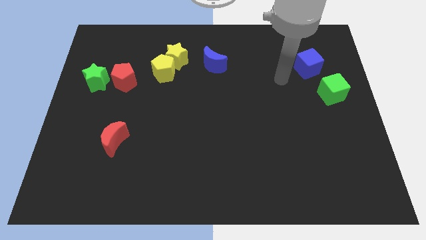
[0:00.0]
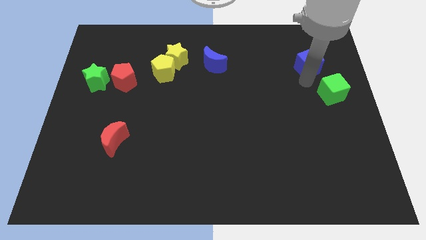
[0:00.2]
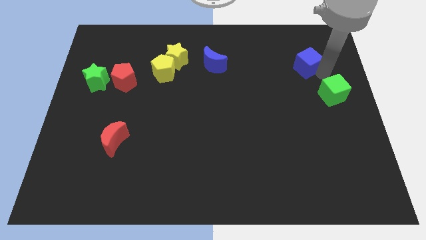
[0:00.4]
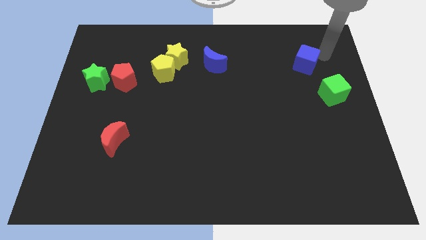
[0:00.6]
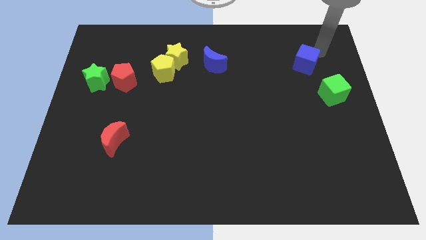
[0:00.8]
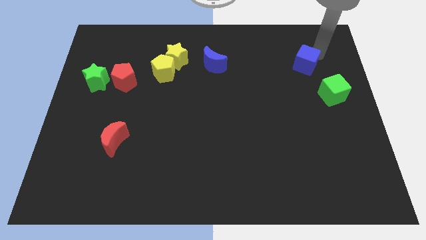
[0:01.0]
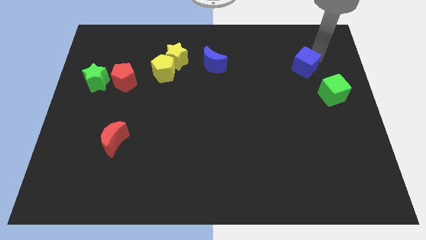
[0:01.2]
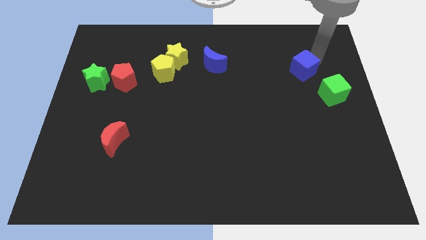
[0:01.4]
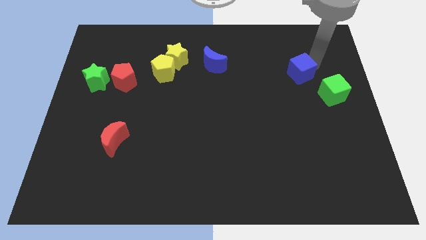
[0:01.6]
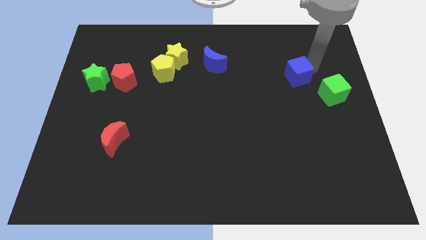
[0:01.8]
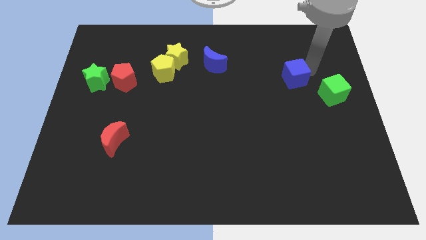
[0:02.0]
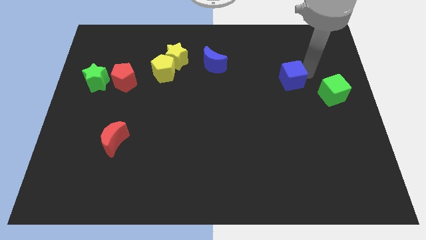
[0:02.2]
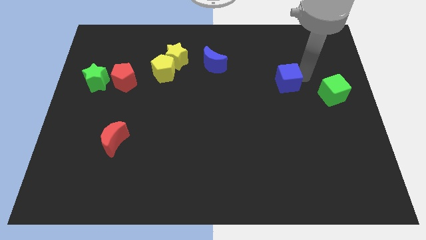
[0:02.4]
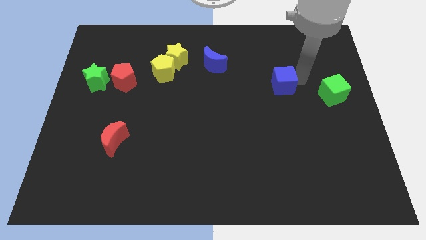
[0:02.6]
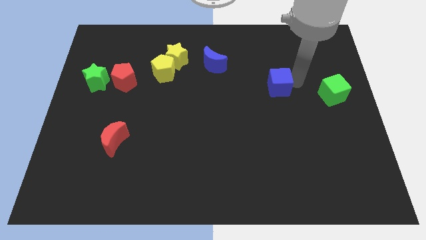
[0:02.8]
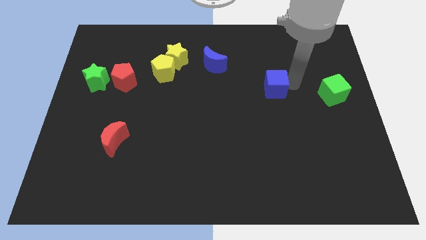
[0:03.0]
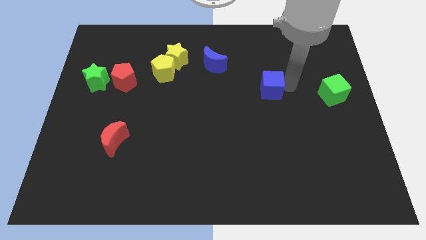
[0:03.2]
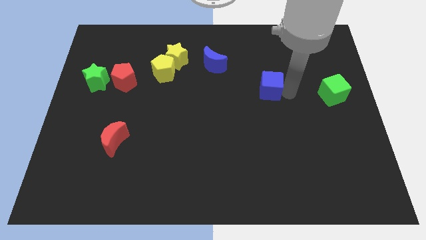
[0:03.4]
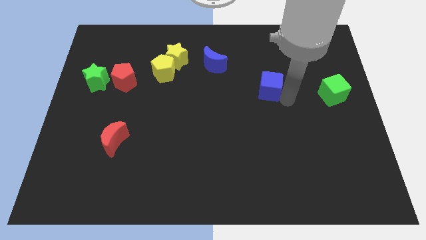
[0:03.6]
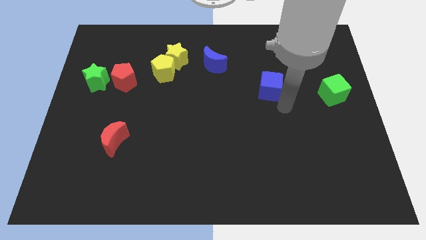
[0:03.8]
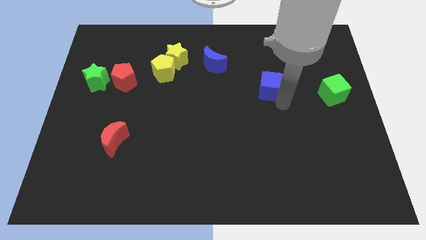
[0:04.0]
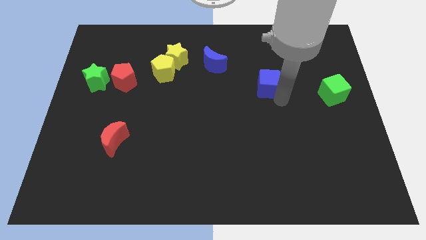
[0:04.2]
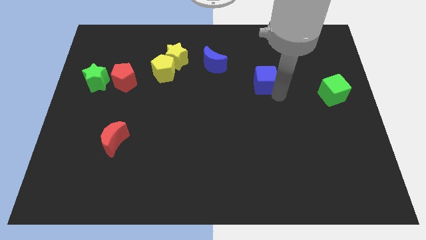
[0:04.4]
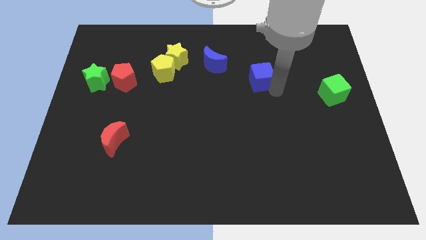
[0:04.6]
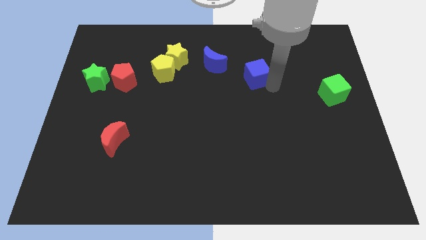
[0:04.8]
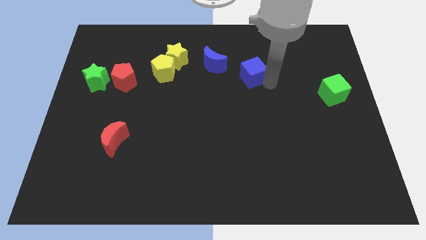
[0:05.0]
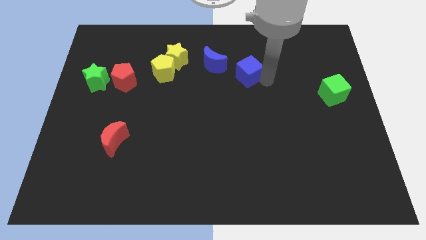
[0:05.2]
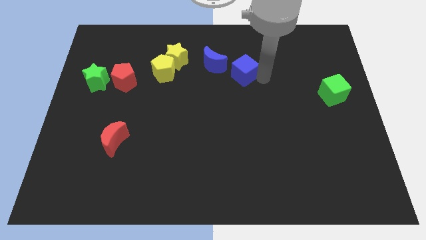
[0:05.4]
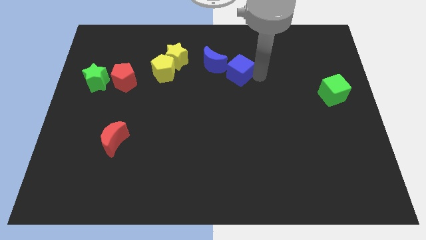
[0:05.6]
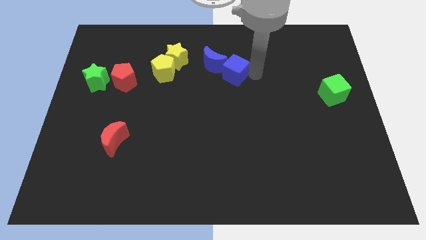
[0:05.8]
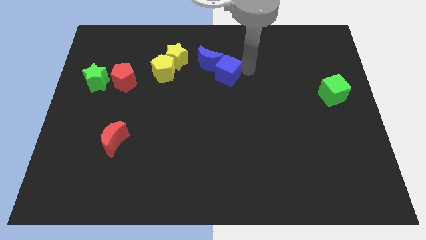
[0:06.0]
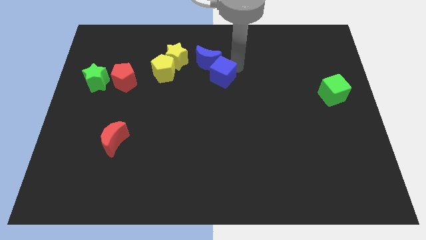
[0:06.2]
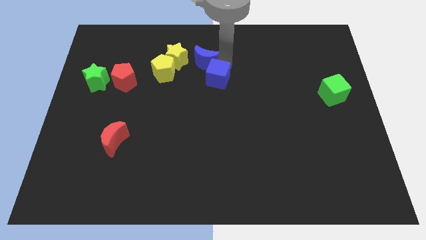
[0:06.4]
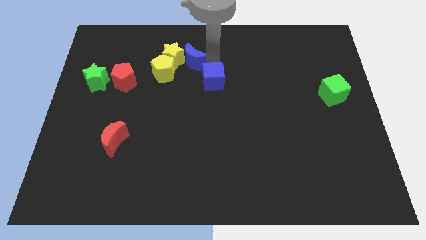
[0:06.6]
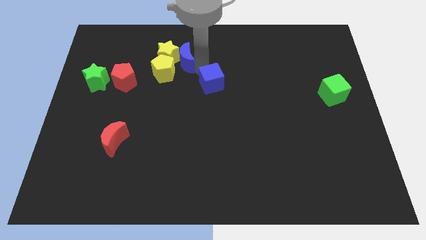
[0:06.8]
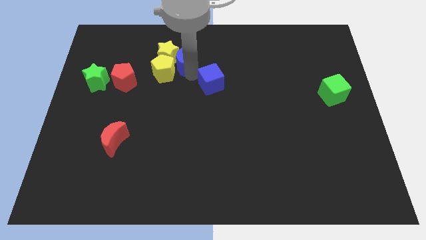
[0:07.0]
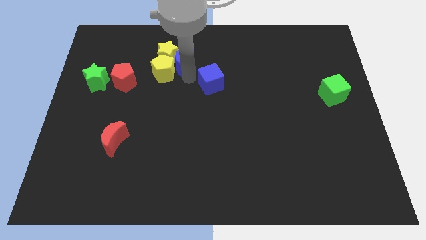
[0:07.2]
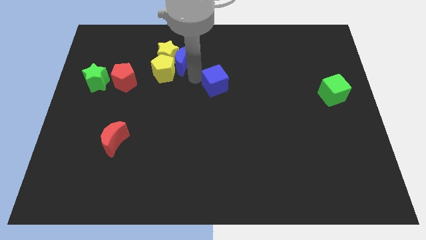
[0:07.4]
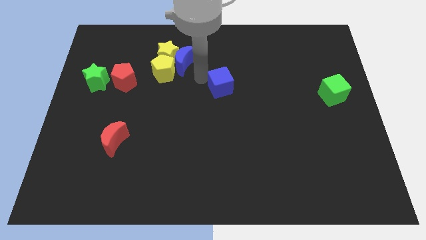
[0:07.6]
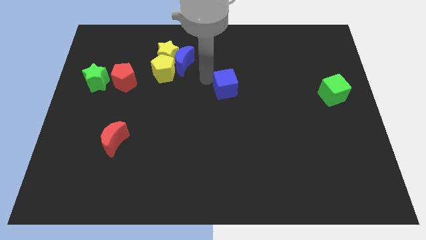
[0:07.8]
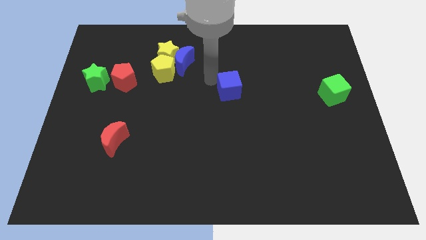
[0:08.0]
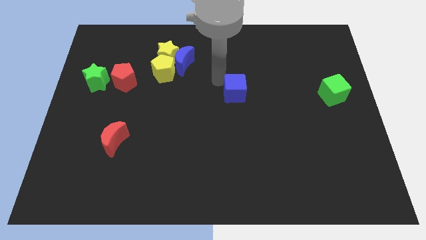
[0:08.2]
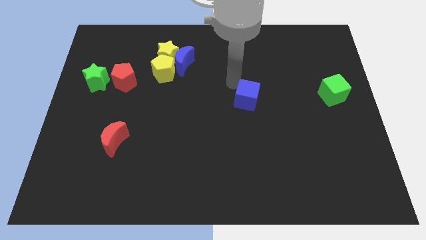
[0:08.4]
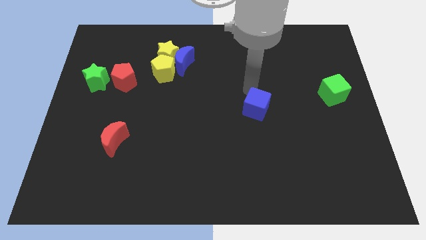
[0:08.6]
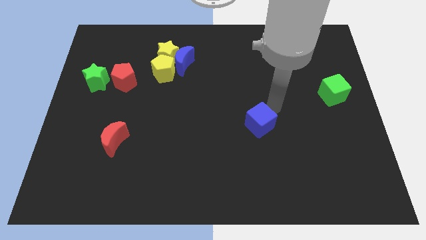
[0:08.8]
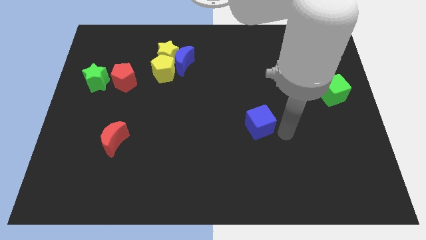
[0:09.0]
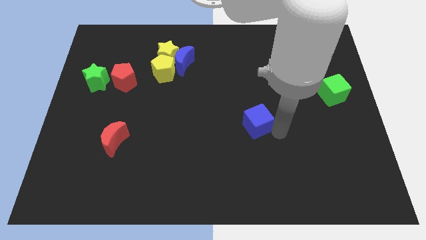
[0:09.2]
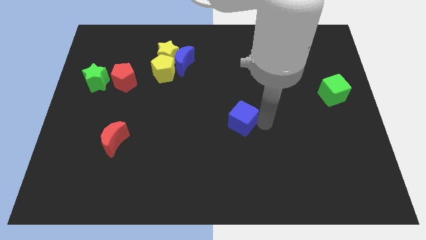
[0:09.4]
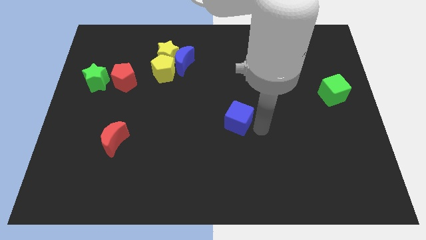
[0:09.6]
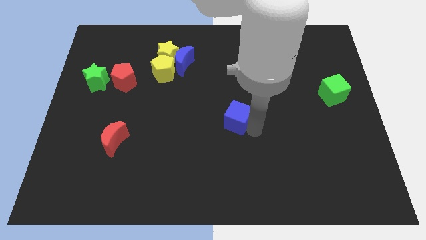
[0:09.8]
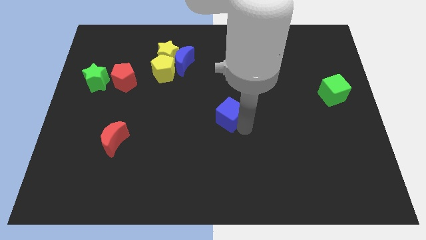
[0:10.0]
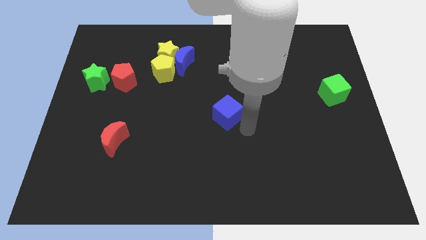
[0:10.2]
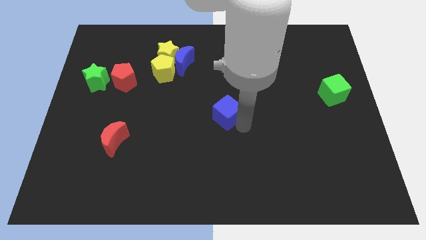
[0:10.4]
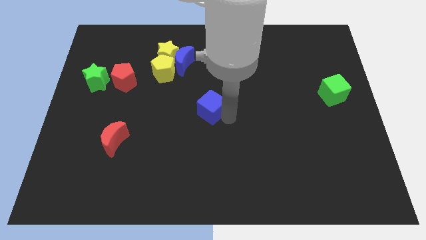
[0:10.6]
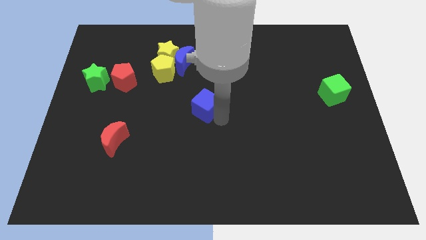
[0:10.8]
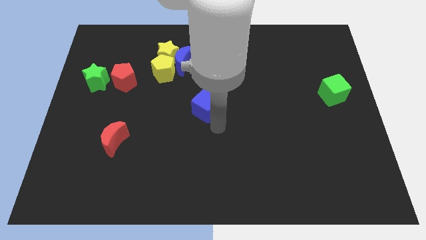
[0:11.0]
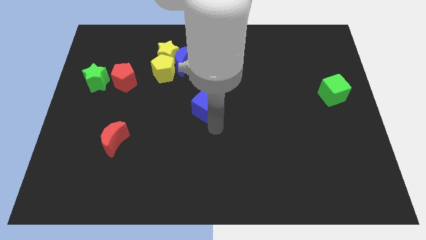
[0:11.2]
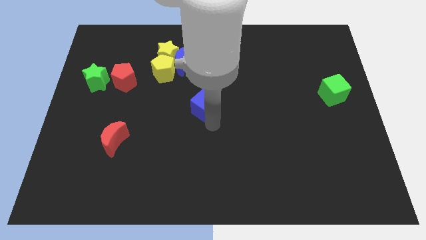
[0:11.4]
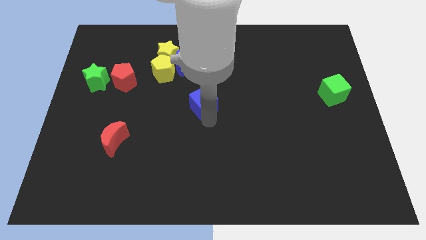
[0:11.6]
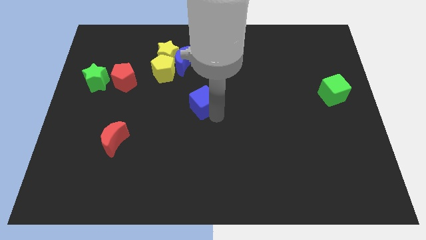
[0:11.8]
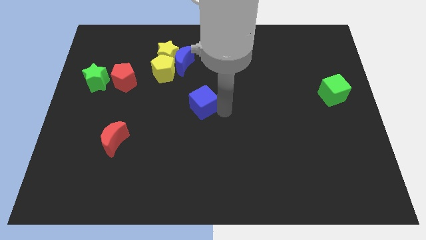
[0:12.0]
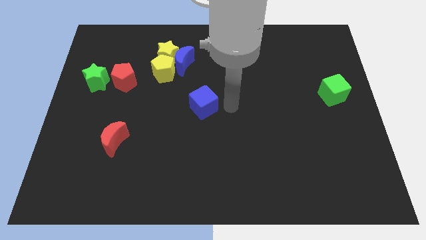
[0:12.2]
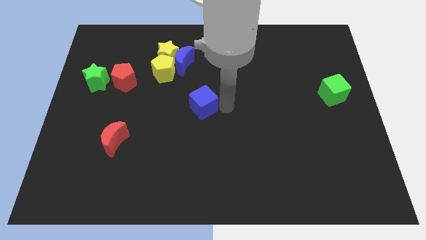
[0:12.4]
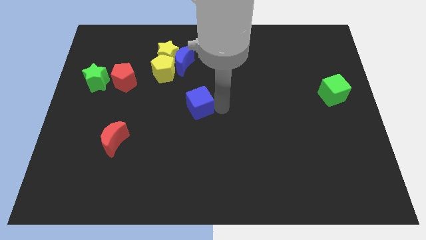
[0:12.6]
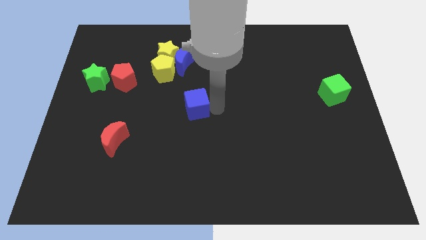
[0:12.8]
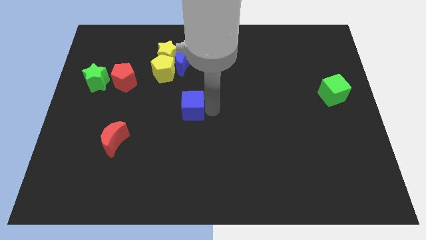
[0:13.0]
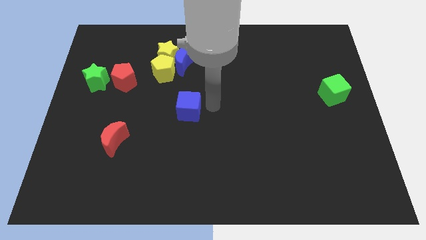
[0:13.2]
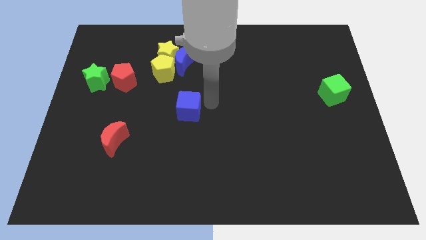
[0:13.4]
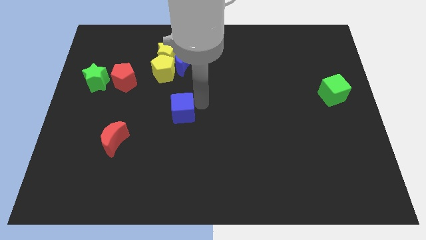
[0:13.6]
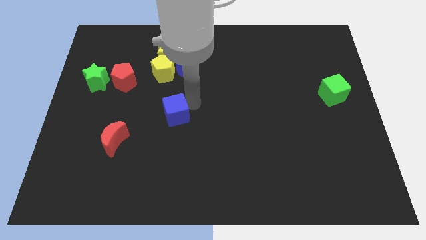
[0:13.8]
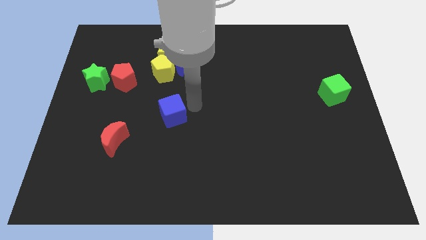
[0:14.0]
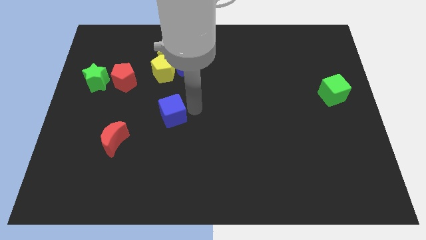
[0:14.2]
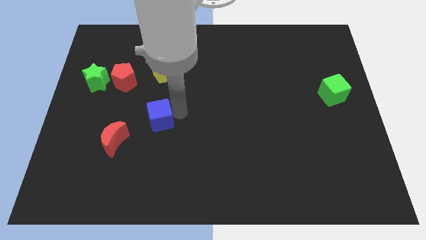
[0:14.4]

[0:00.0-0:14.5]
slide the blue cube to the top right side of the red moon
